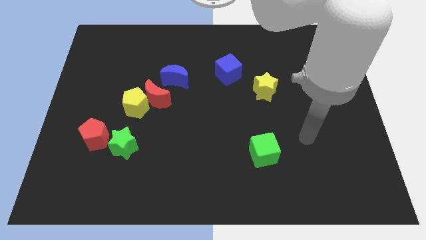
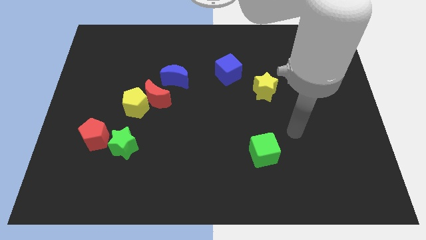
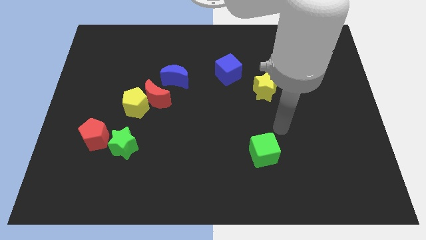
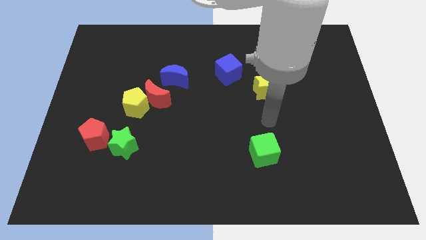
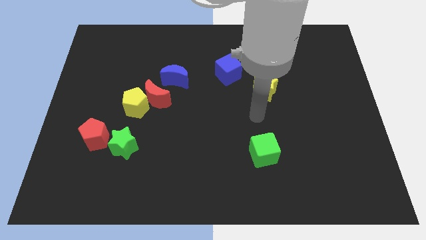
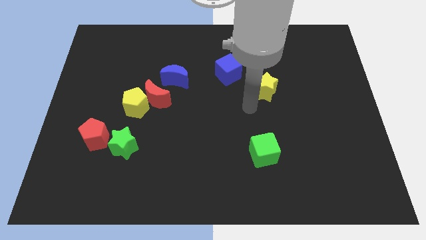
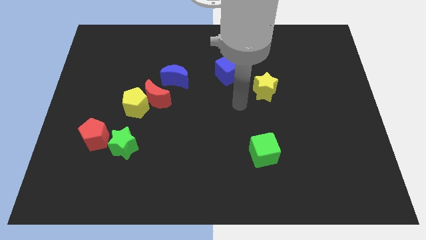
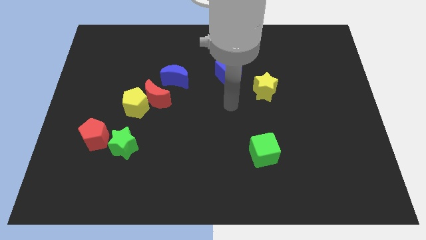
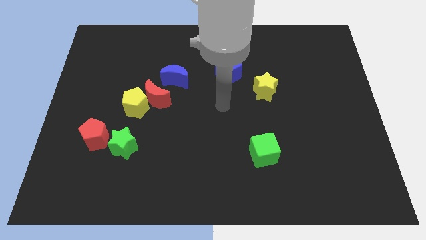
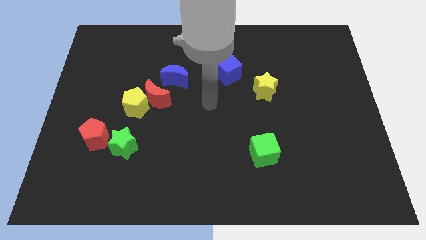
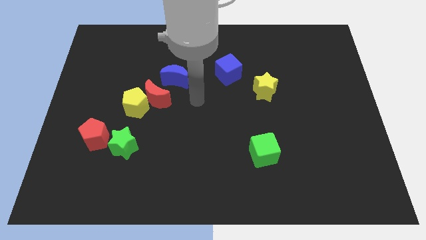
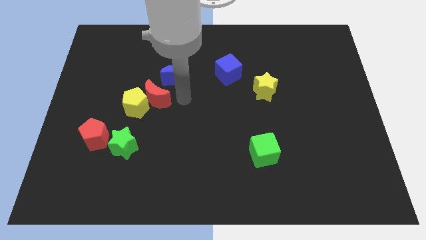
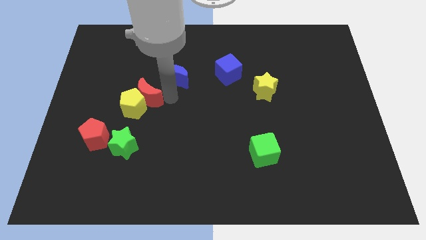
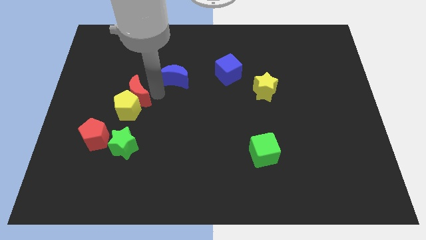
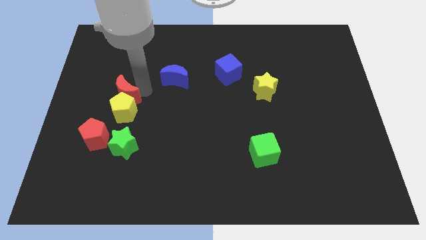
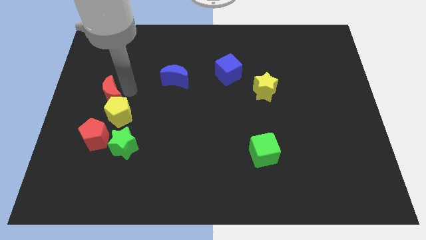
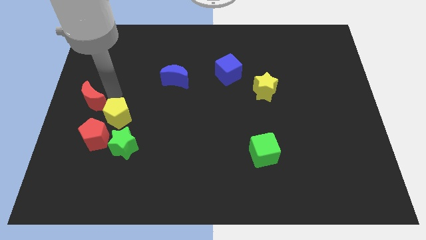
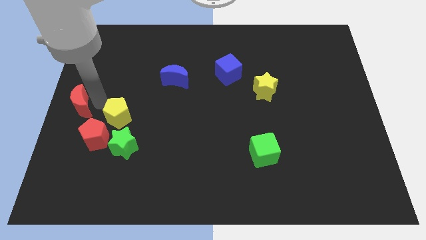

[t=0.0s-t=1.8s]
separate the yellow pentagon from the red moon

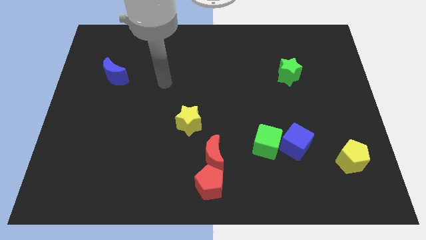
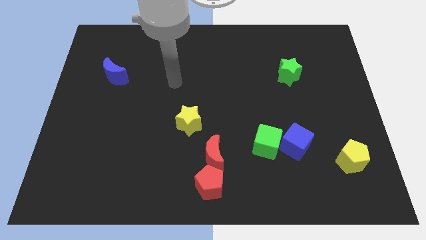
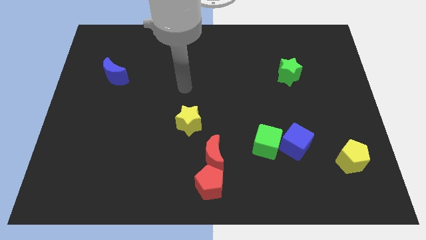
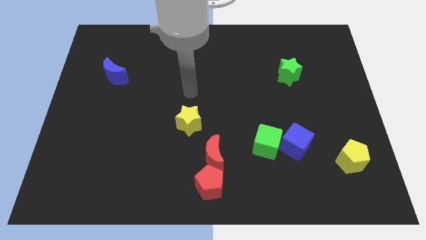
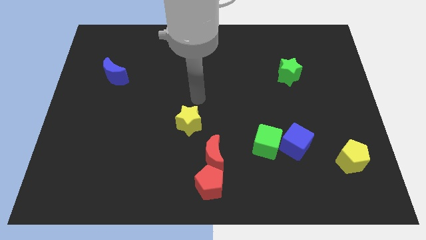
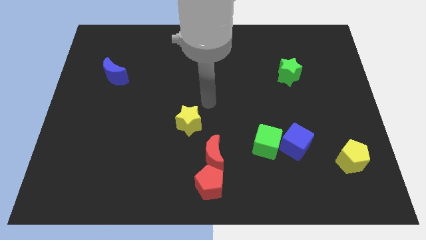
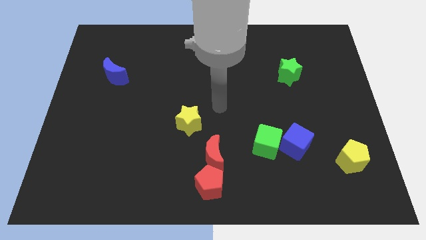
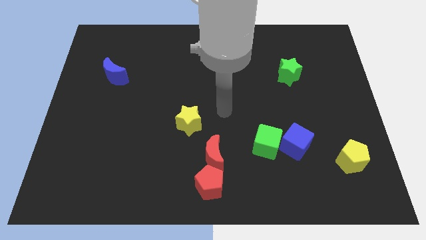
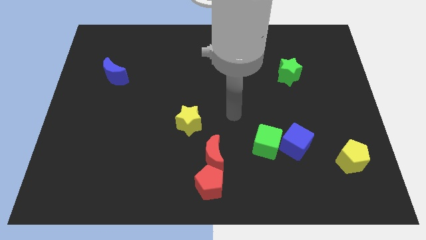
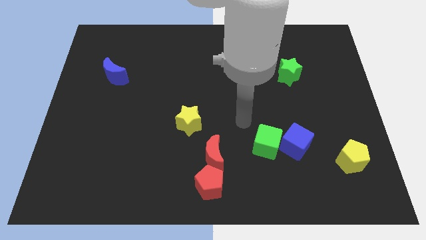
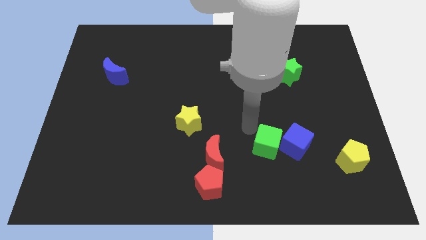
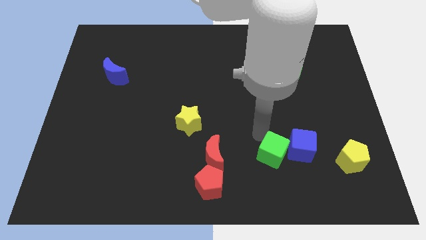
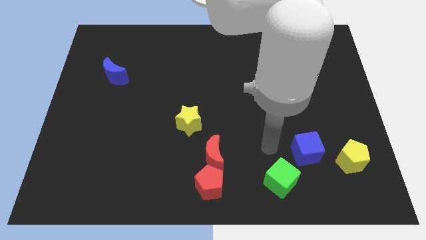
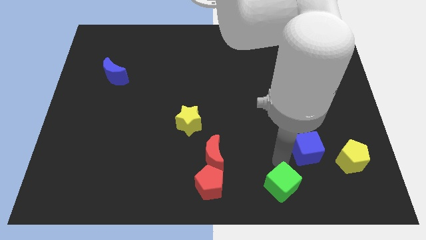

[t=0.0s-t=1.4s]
separate the blue cube from the green cube

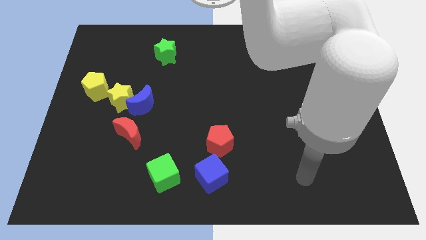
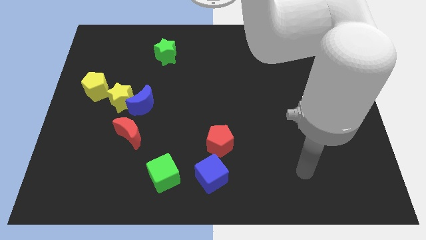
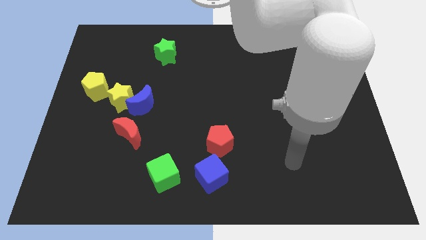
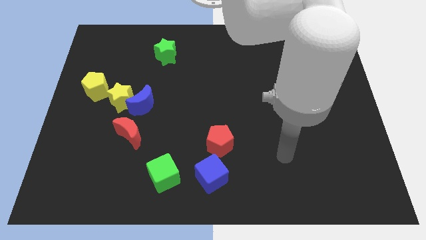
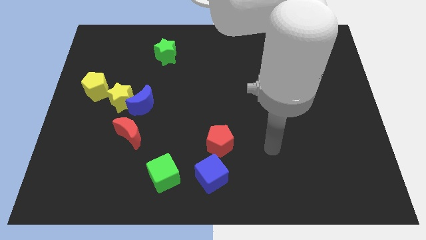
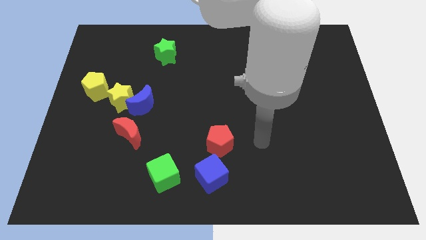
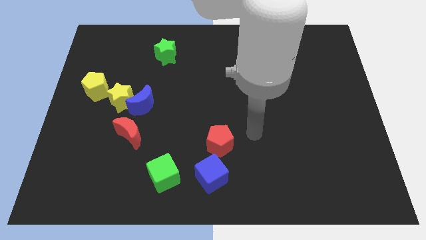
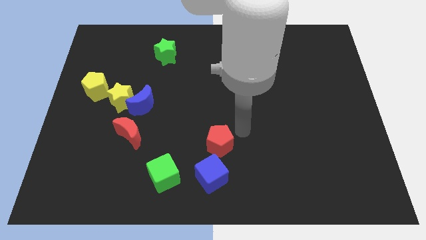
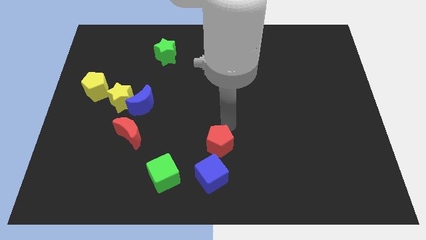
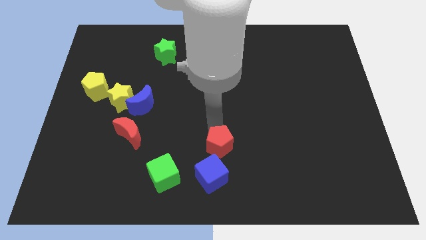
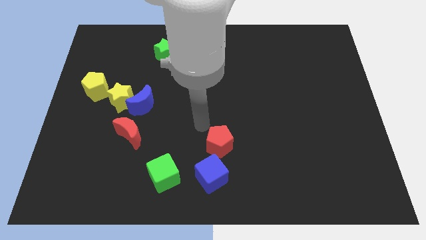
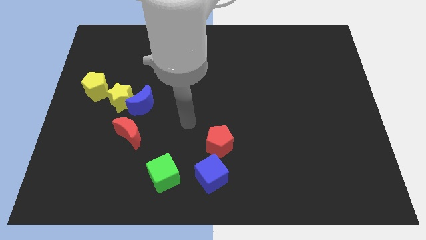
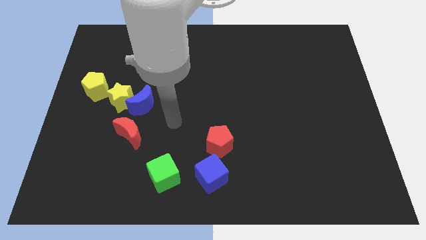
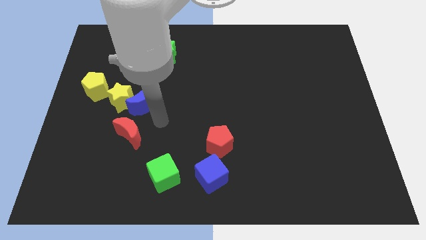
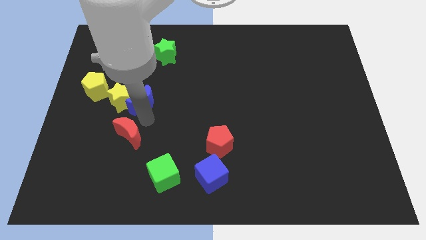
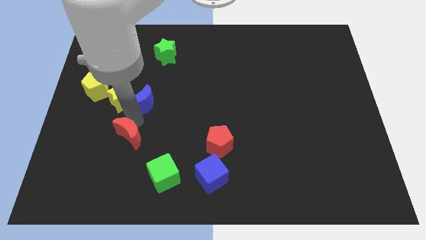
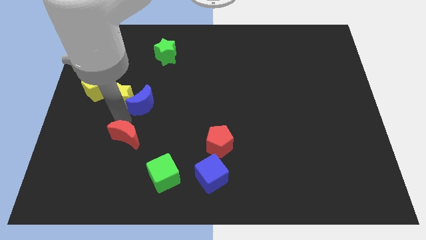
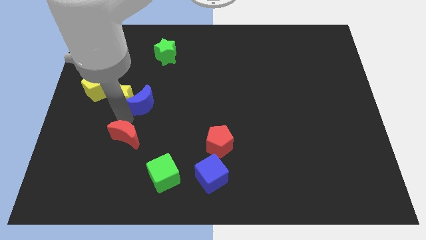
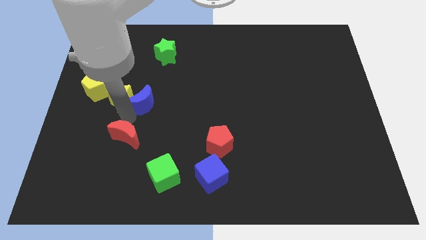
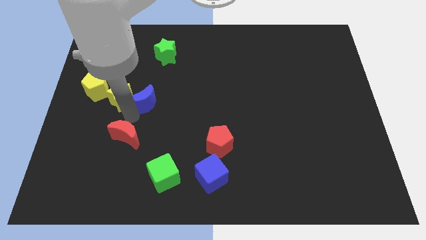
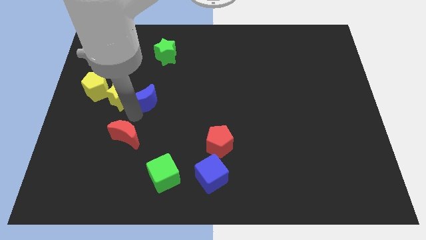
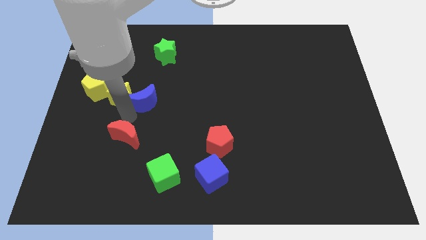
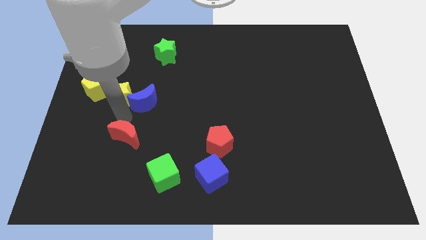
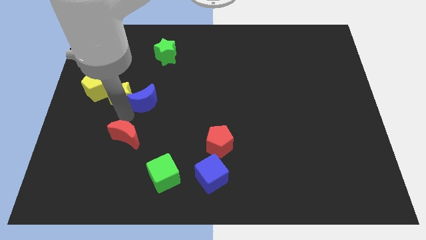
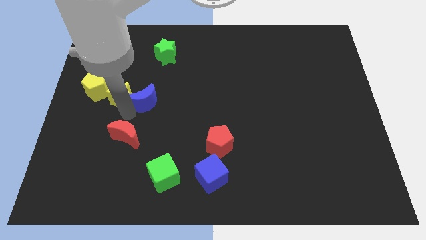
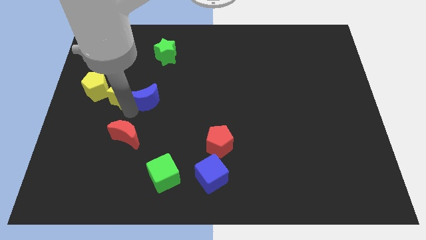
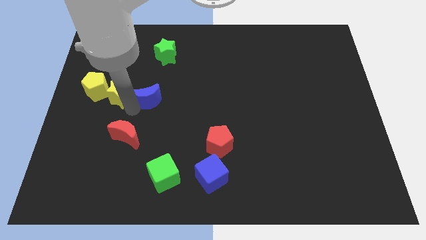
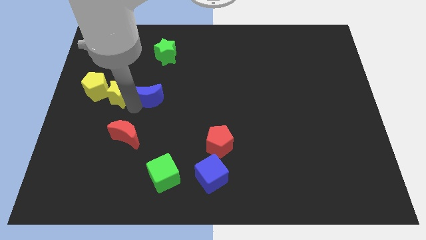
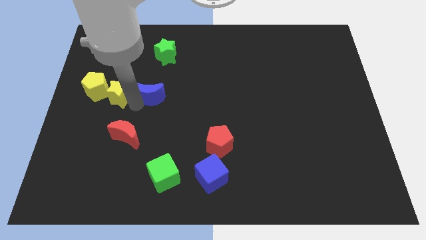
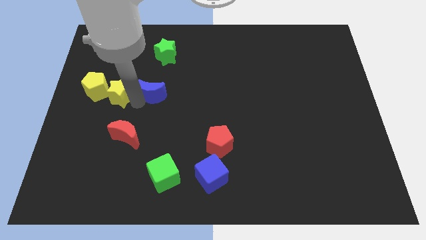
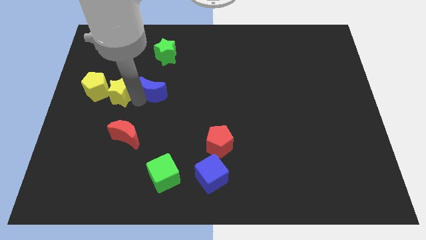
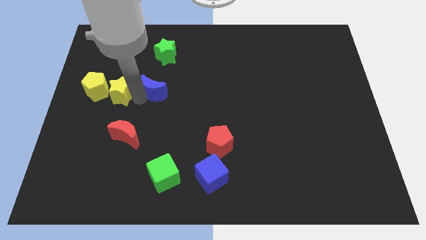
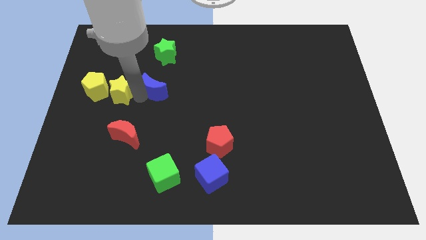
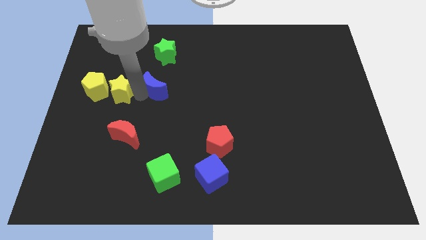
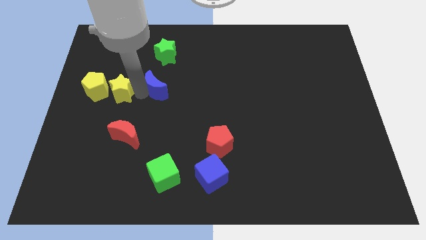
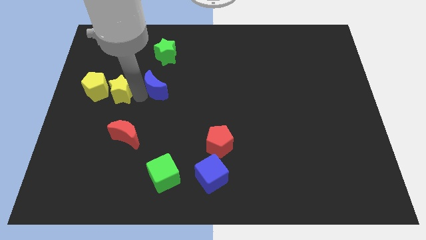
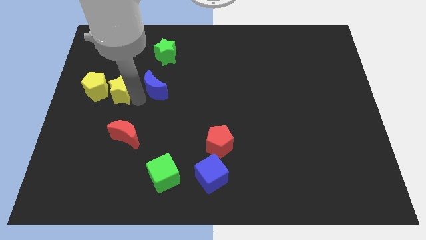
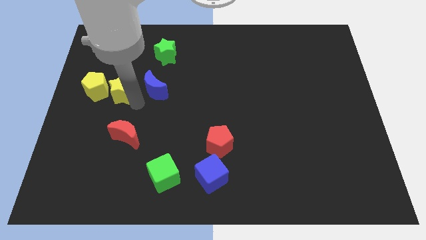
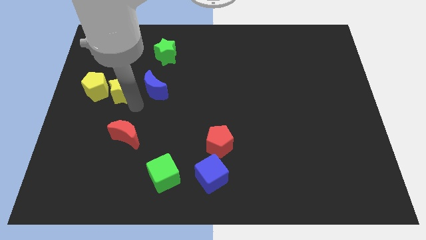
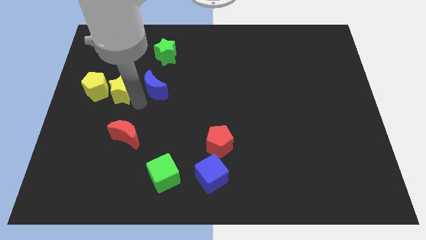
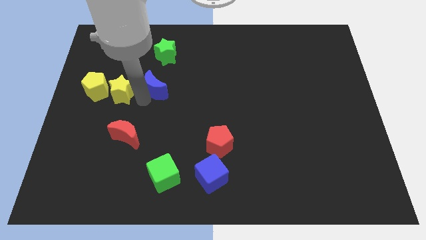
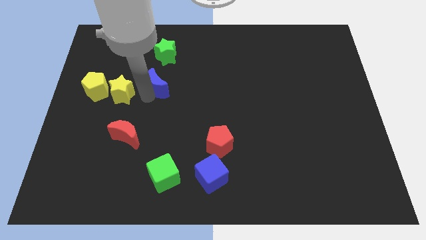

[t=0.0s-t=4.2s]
separate the blue moon from the yellow star and red moon

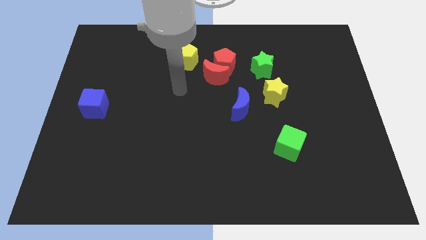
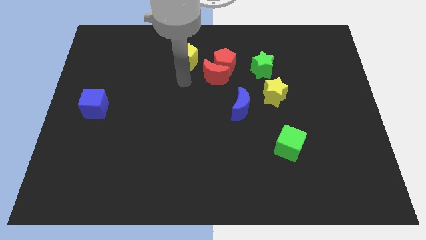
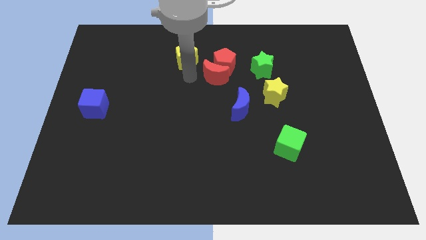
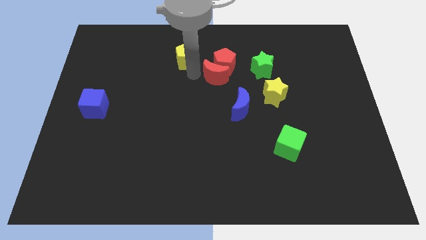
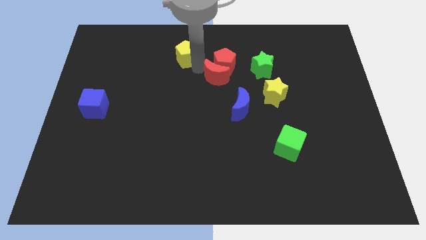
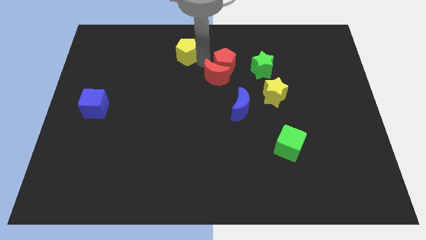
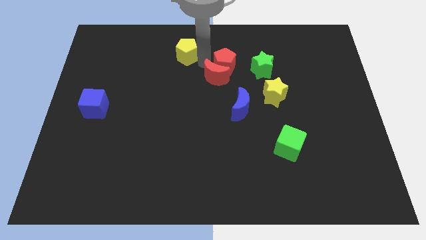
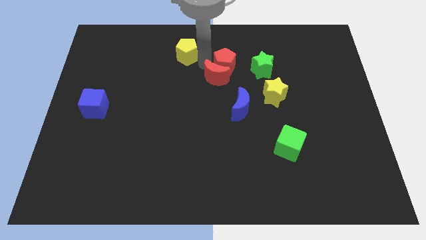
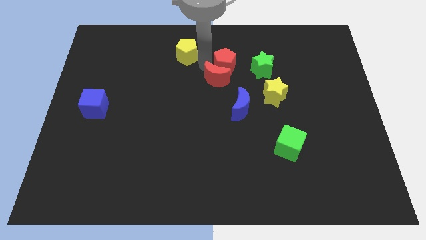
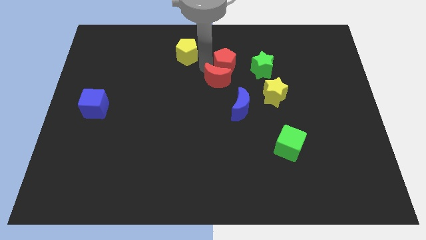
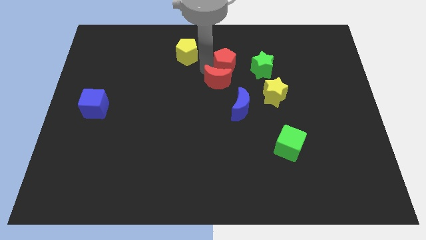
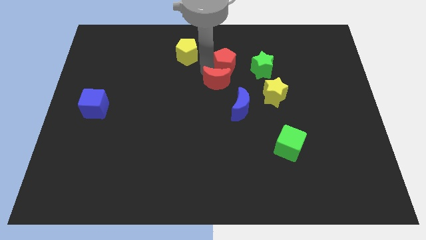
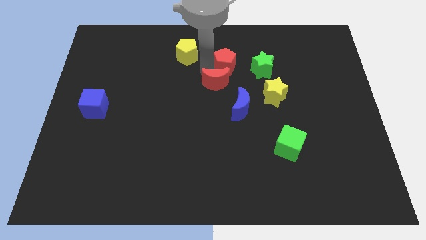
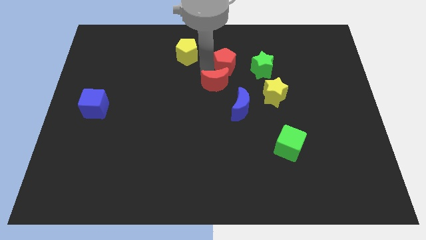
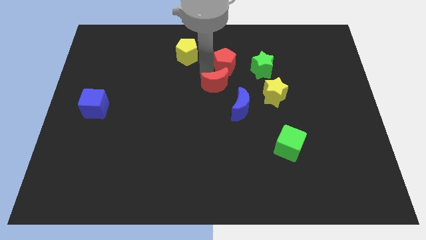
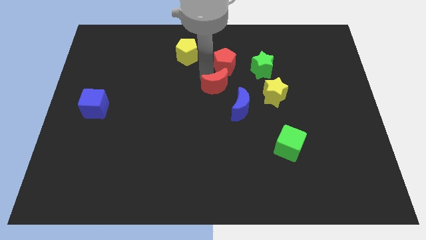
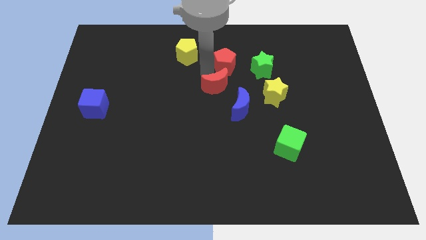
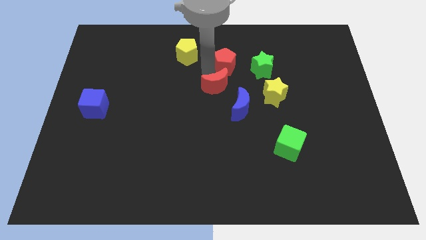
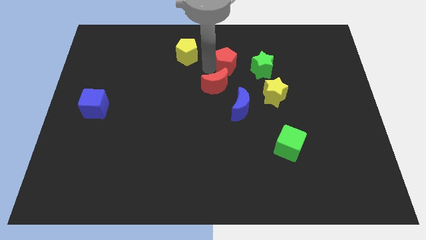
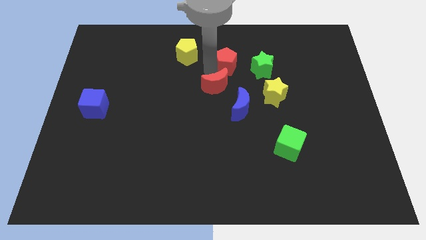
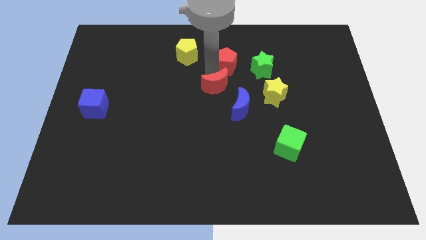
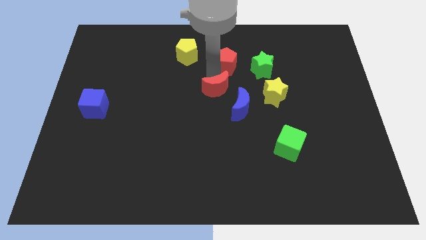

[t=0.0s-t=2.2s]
pull the red moon apart from the red pentagon and yellow pentagon
